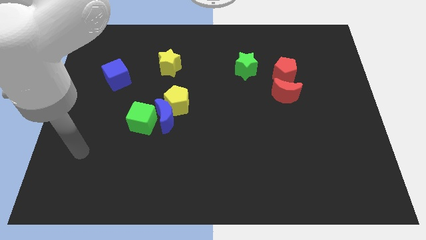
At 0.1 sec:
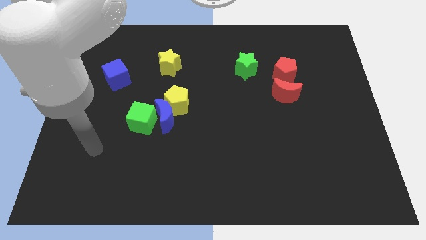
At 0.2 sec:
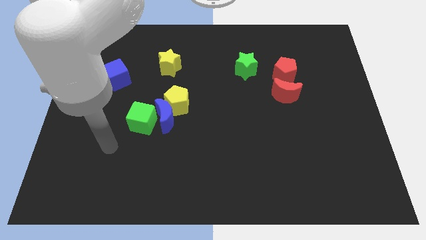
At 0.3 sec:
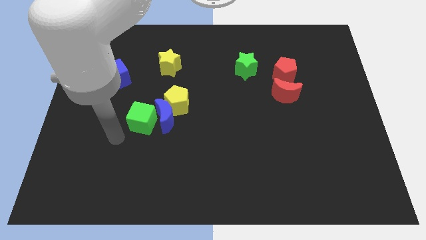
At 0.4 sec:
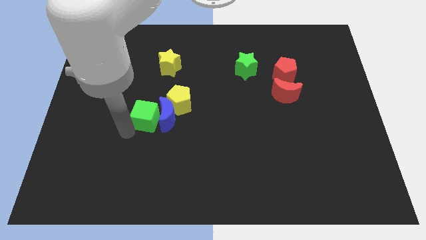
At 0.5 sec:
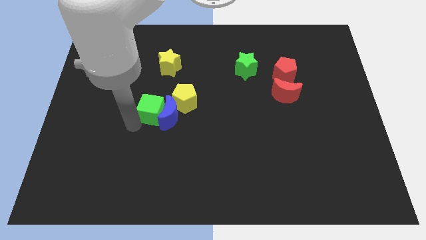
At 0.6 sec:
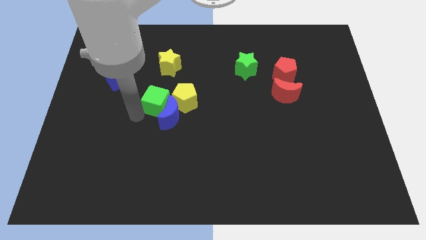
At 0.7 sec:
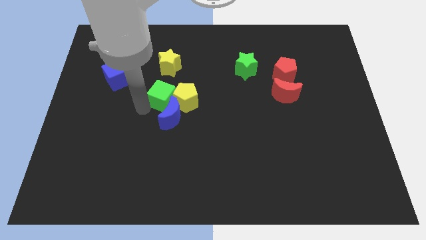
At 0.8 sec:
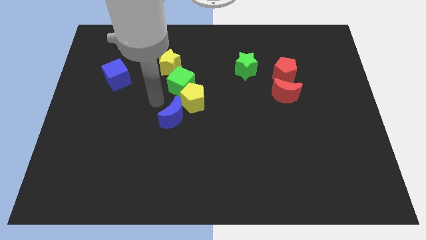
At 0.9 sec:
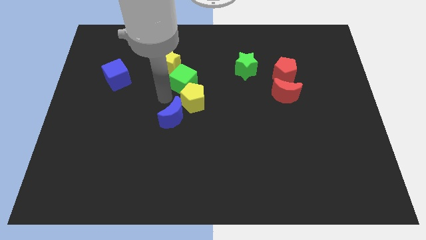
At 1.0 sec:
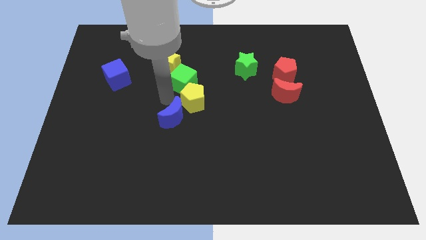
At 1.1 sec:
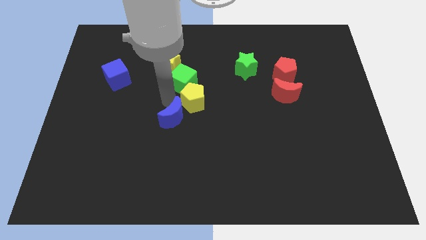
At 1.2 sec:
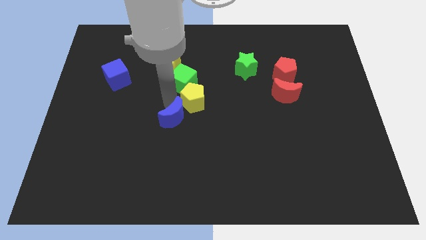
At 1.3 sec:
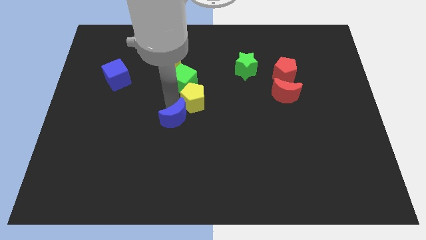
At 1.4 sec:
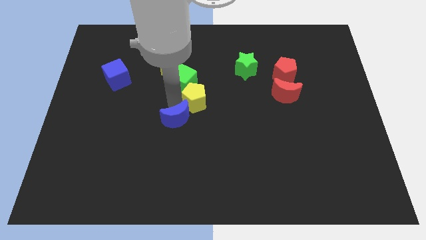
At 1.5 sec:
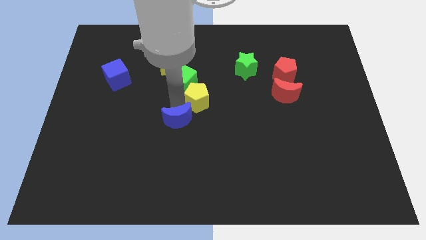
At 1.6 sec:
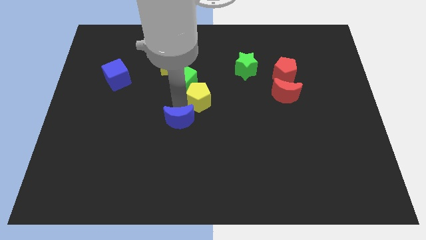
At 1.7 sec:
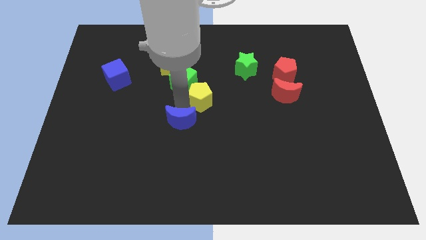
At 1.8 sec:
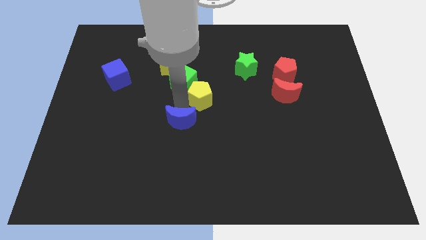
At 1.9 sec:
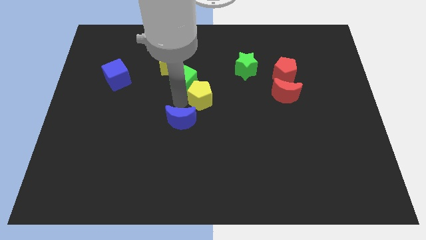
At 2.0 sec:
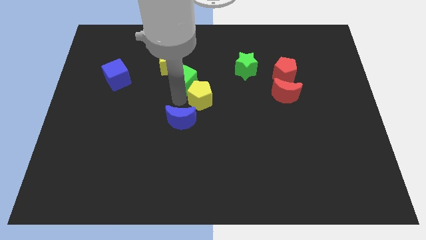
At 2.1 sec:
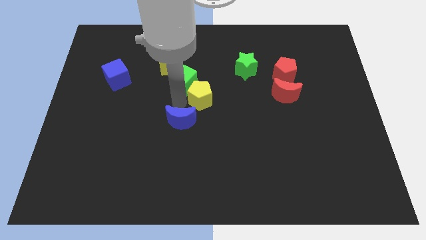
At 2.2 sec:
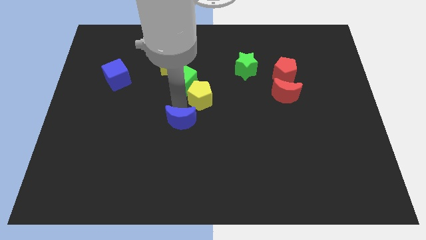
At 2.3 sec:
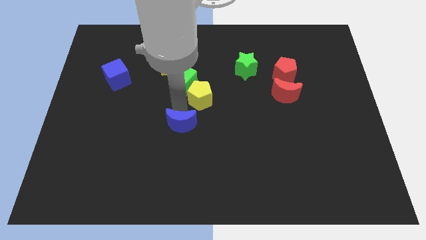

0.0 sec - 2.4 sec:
separate the blue moon from the yellow pentagon and green cube

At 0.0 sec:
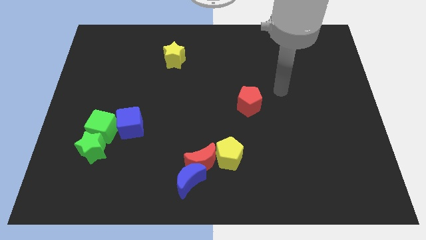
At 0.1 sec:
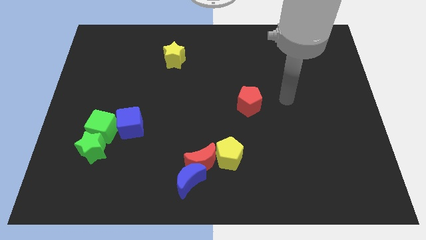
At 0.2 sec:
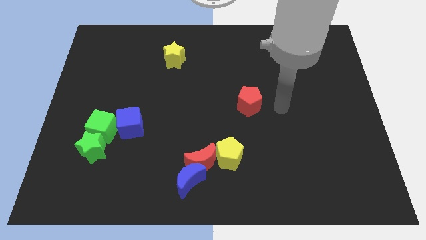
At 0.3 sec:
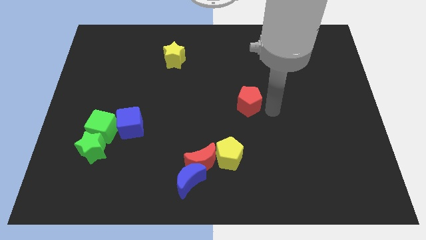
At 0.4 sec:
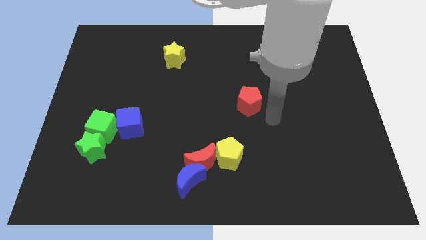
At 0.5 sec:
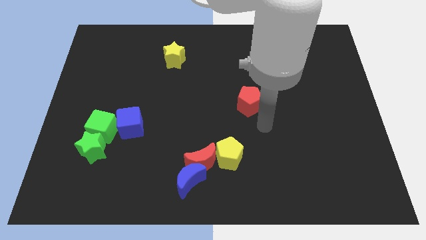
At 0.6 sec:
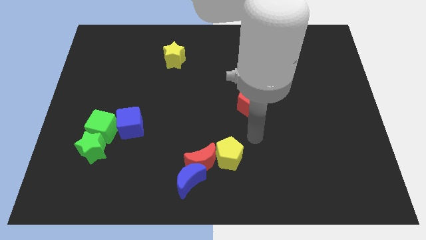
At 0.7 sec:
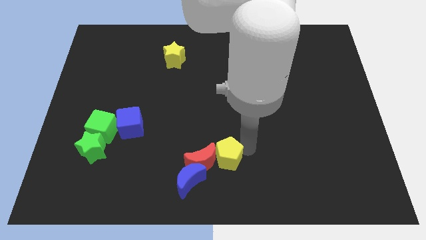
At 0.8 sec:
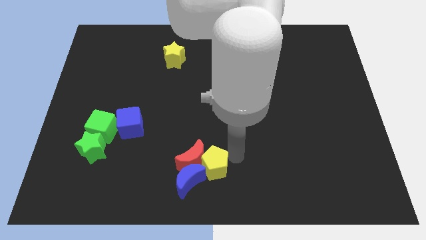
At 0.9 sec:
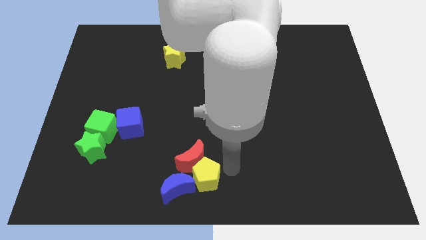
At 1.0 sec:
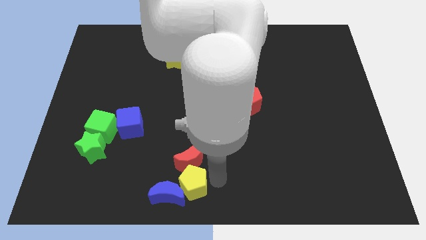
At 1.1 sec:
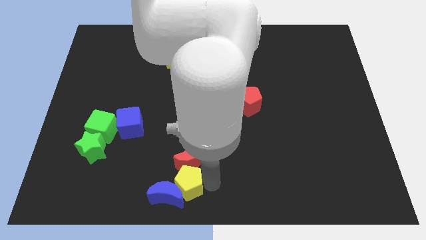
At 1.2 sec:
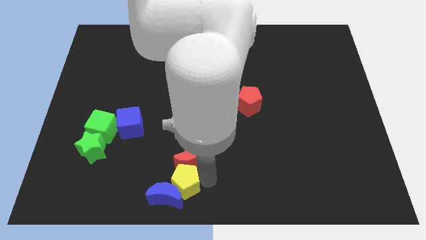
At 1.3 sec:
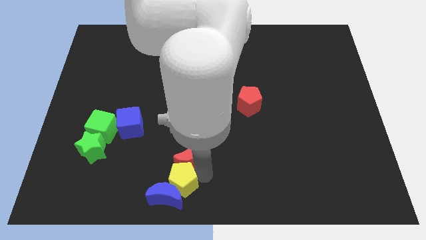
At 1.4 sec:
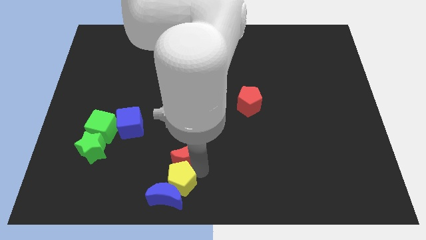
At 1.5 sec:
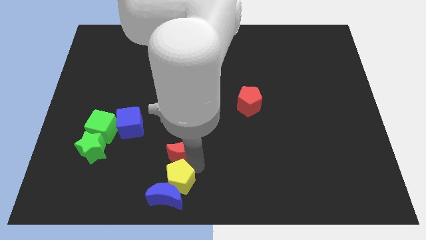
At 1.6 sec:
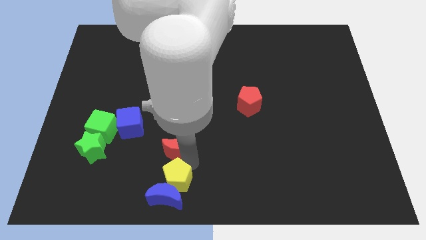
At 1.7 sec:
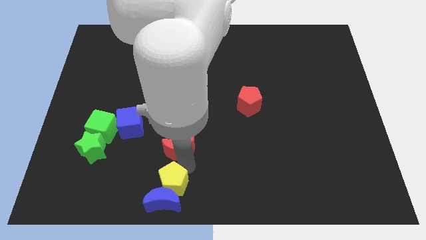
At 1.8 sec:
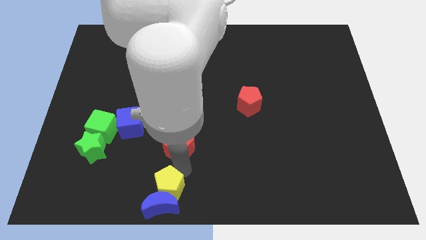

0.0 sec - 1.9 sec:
separate the red moon from the blue moon and yellow pentagon

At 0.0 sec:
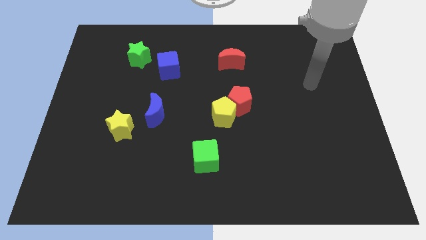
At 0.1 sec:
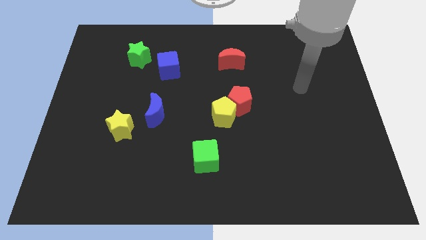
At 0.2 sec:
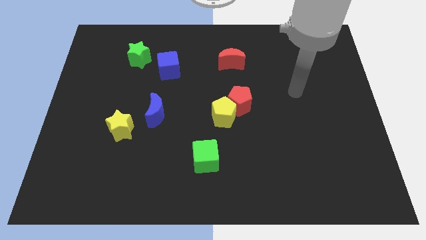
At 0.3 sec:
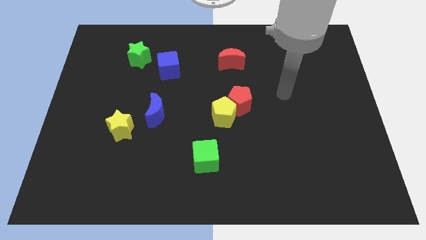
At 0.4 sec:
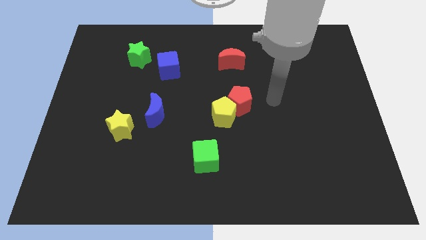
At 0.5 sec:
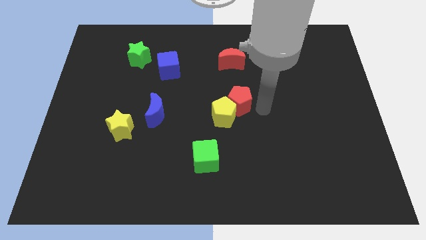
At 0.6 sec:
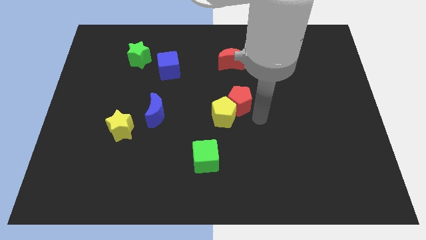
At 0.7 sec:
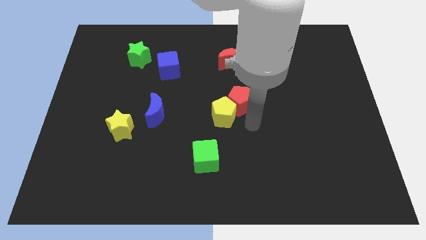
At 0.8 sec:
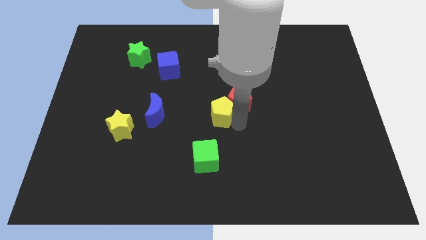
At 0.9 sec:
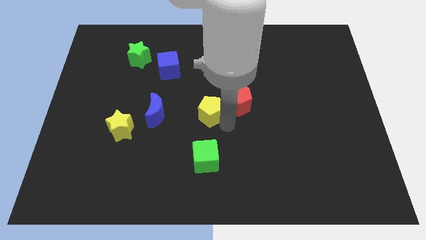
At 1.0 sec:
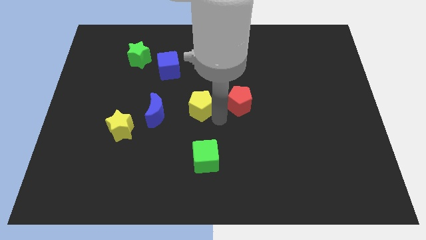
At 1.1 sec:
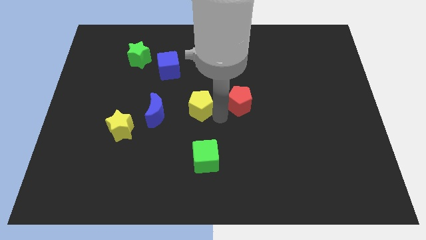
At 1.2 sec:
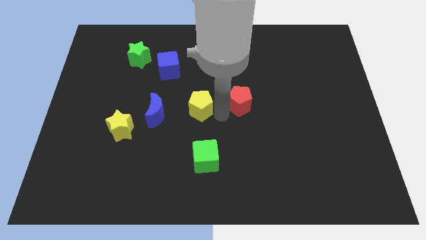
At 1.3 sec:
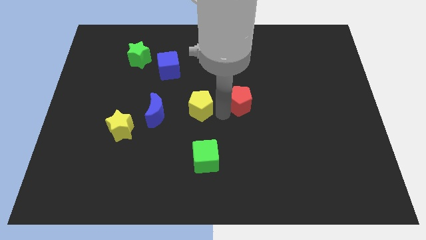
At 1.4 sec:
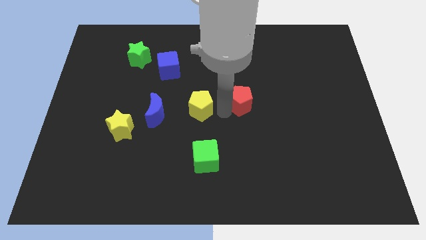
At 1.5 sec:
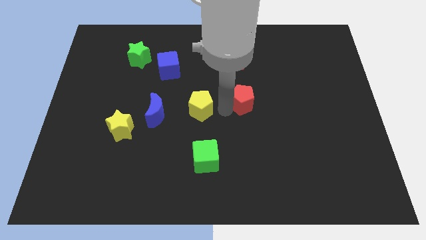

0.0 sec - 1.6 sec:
separate the red pentagon from the yellow pentagon

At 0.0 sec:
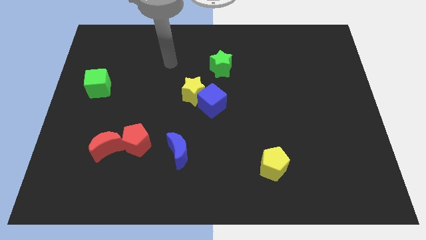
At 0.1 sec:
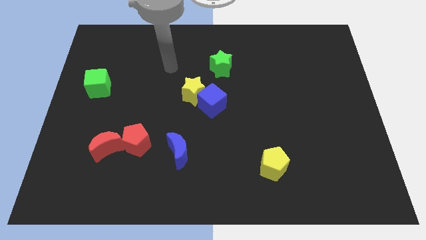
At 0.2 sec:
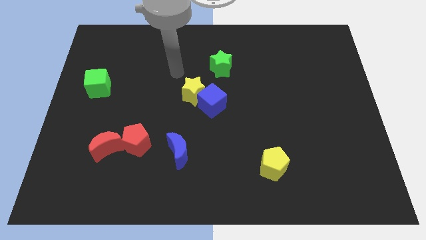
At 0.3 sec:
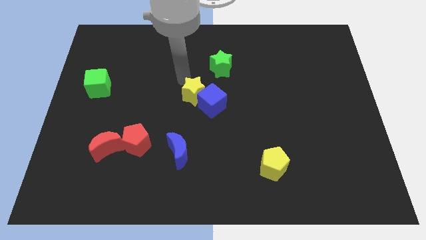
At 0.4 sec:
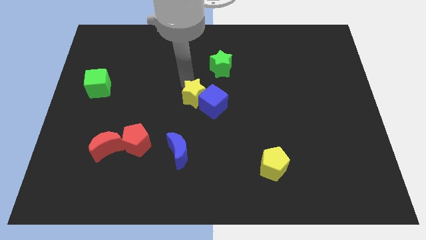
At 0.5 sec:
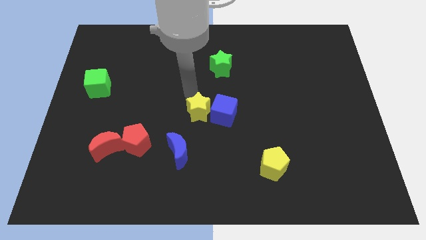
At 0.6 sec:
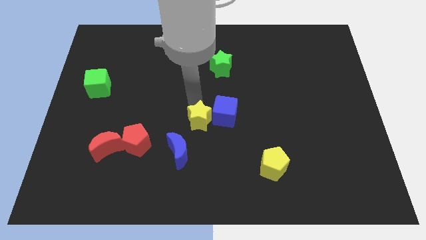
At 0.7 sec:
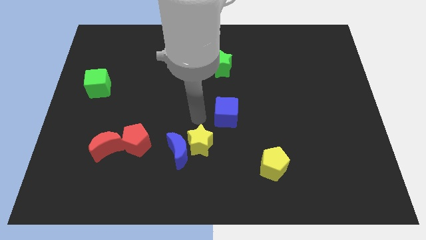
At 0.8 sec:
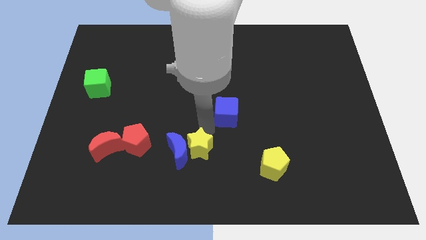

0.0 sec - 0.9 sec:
pull the blue cube apart from the yellow star

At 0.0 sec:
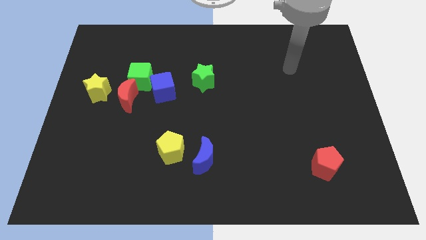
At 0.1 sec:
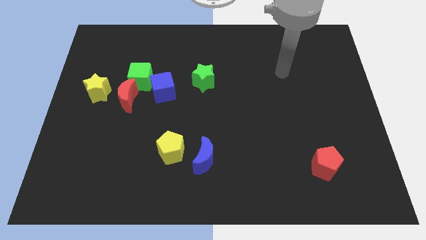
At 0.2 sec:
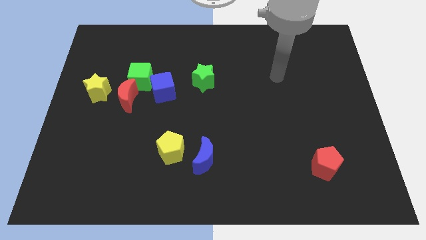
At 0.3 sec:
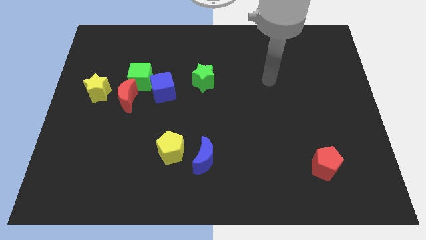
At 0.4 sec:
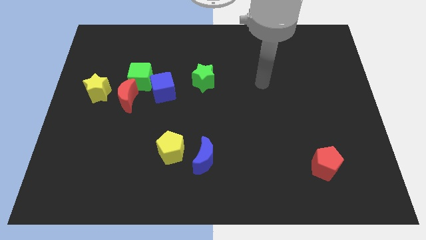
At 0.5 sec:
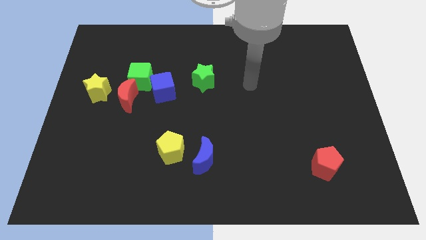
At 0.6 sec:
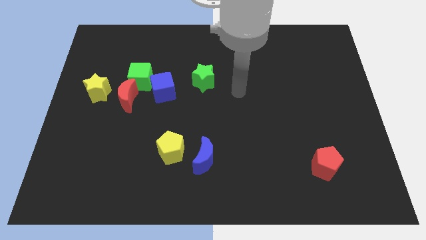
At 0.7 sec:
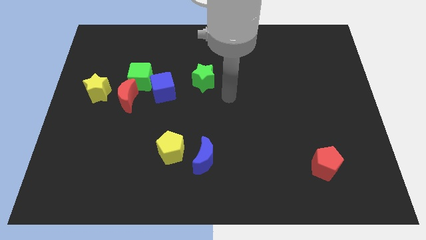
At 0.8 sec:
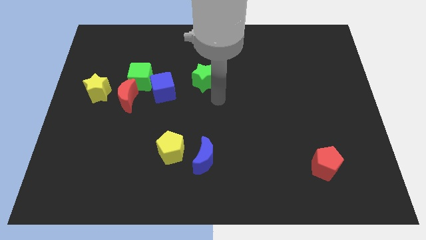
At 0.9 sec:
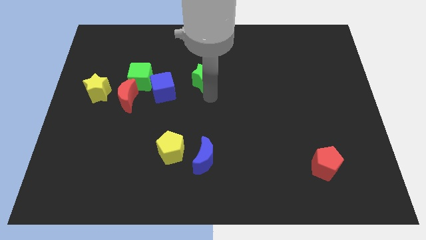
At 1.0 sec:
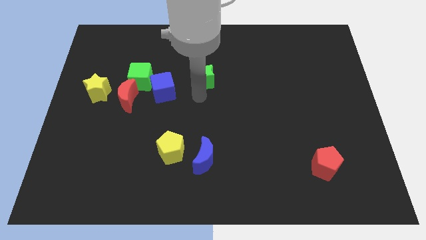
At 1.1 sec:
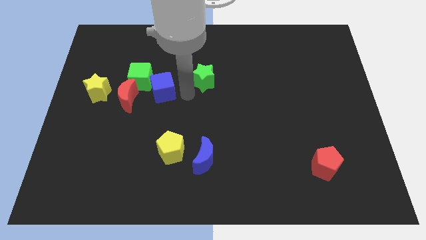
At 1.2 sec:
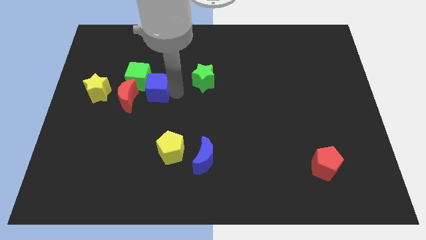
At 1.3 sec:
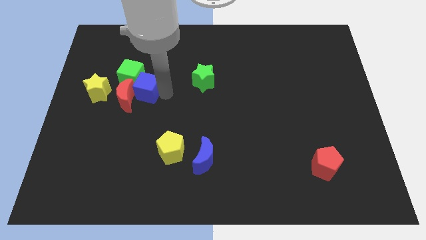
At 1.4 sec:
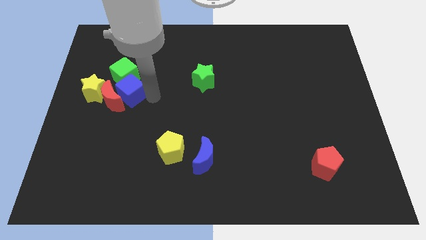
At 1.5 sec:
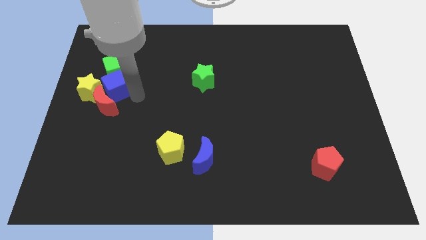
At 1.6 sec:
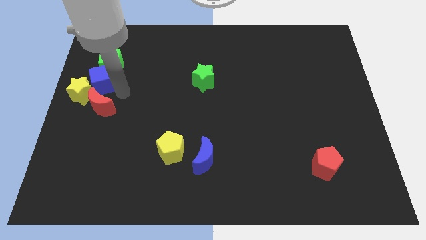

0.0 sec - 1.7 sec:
move the green cube away from the red moon and blue cube

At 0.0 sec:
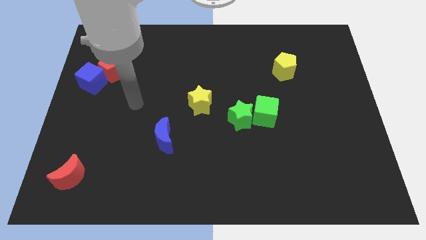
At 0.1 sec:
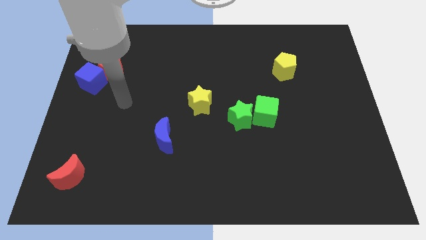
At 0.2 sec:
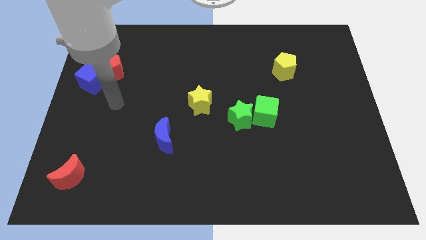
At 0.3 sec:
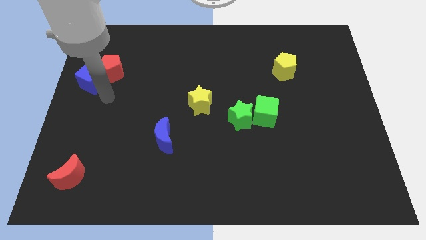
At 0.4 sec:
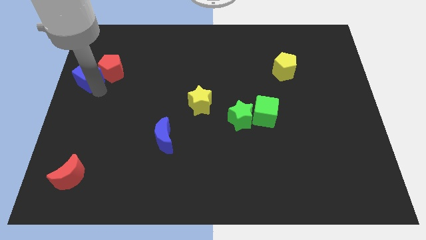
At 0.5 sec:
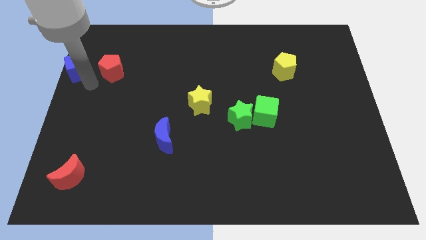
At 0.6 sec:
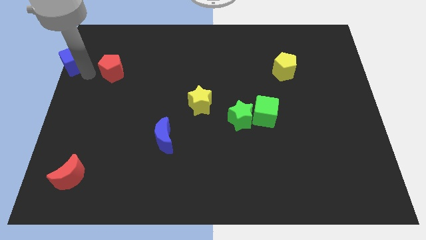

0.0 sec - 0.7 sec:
move the red pentagon away from the blue cube
